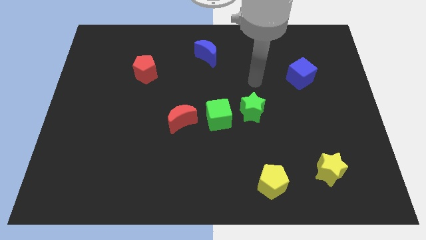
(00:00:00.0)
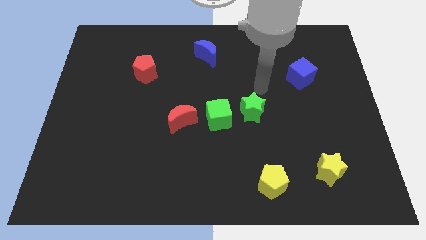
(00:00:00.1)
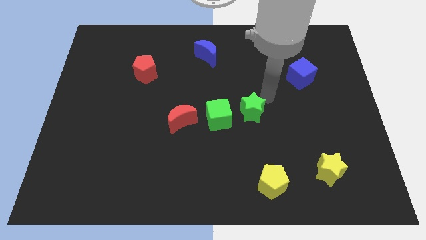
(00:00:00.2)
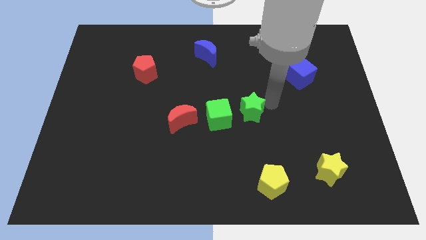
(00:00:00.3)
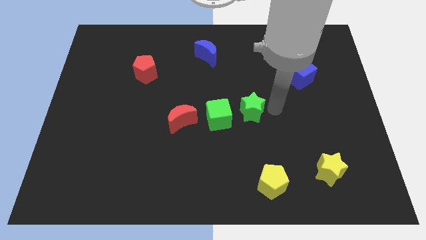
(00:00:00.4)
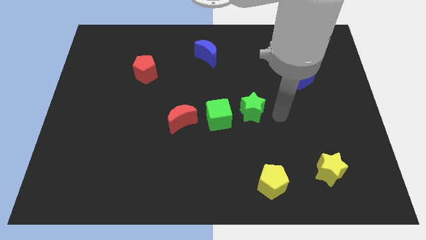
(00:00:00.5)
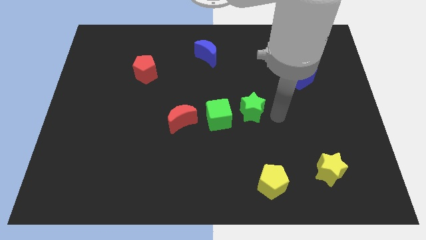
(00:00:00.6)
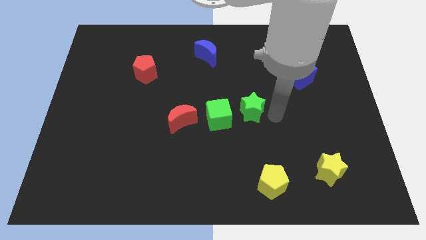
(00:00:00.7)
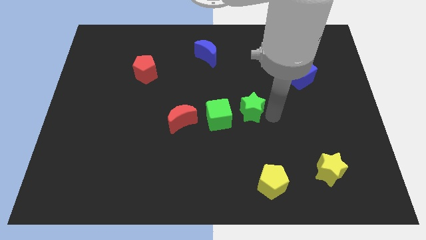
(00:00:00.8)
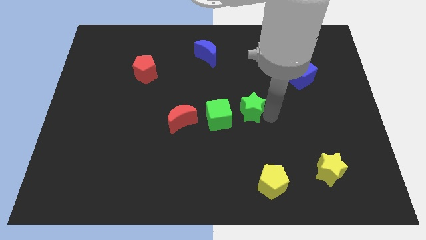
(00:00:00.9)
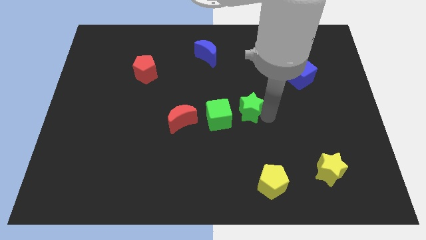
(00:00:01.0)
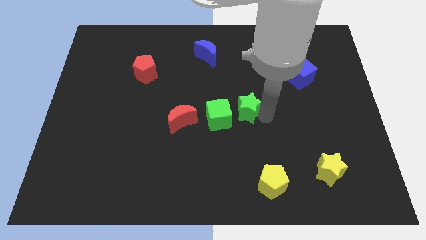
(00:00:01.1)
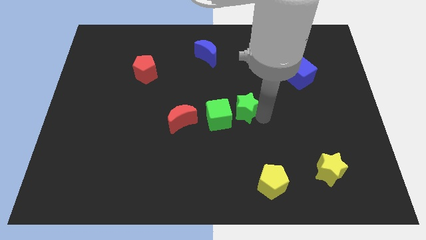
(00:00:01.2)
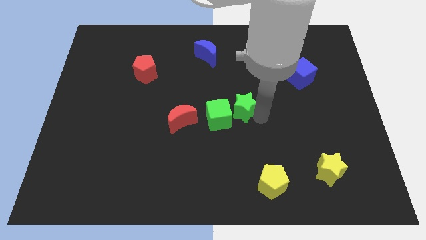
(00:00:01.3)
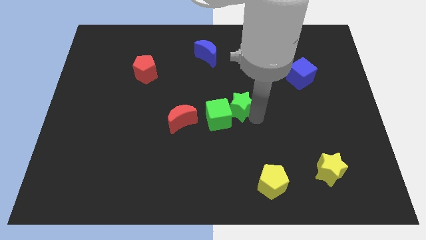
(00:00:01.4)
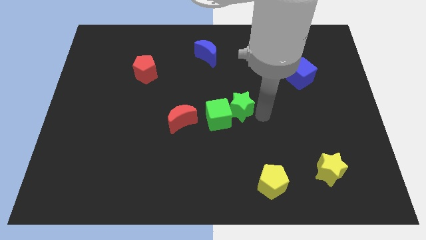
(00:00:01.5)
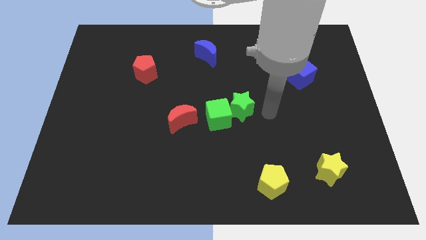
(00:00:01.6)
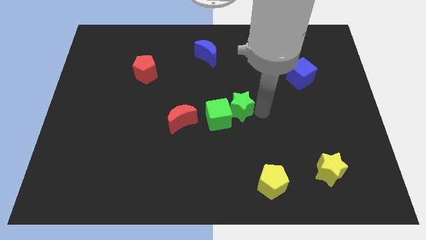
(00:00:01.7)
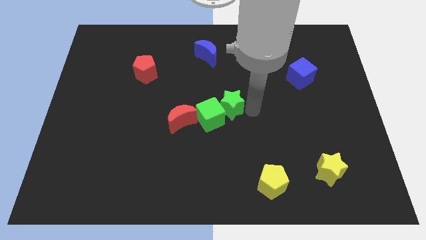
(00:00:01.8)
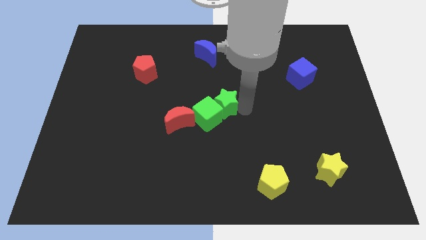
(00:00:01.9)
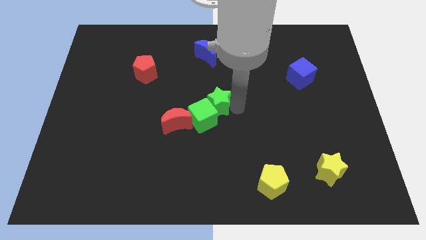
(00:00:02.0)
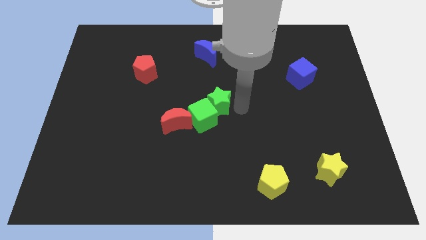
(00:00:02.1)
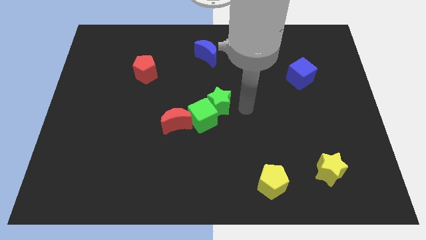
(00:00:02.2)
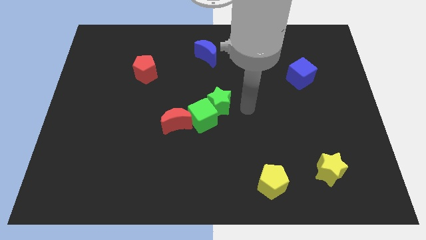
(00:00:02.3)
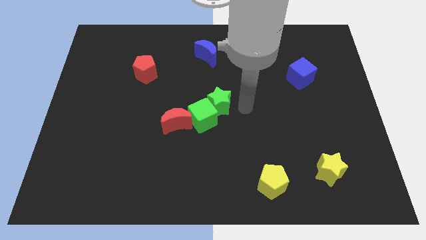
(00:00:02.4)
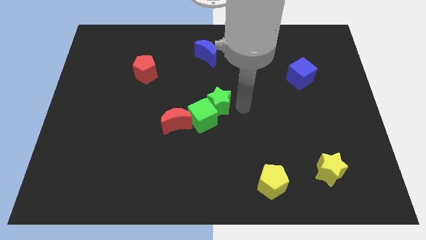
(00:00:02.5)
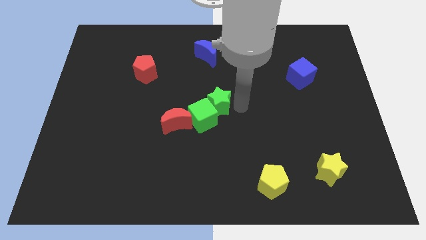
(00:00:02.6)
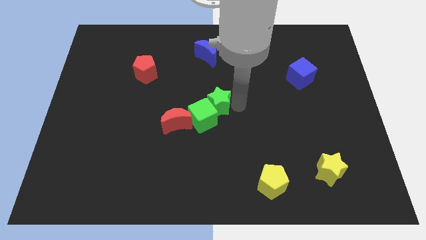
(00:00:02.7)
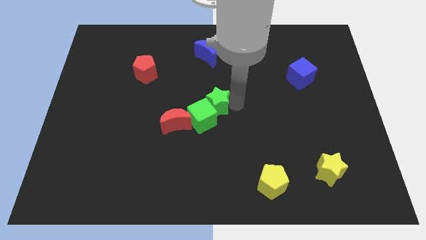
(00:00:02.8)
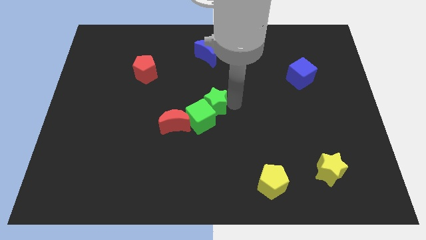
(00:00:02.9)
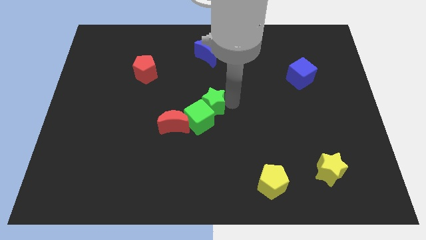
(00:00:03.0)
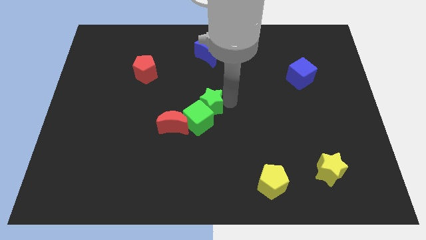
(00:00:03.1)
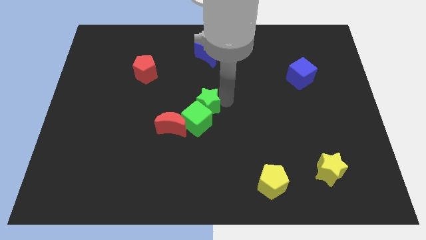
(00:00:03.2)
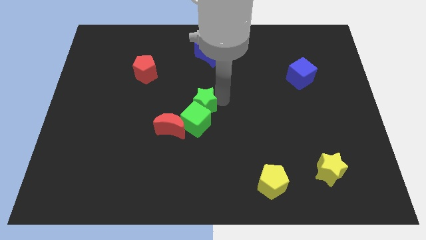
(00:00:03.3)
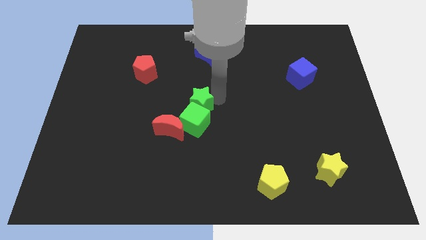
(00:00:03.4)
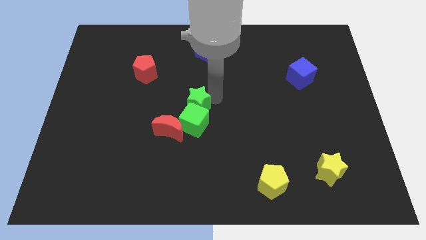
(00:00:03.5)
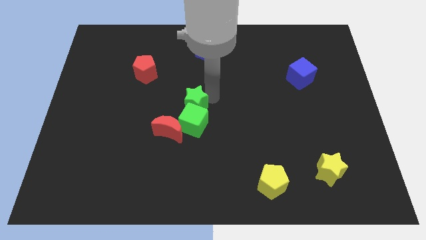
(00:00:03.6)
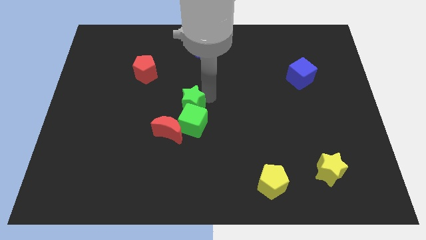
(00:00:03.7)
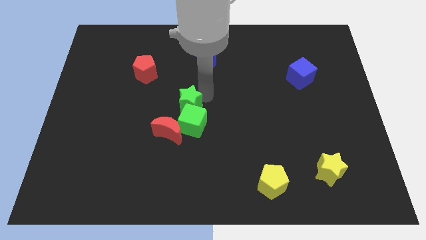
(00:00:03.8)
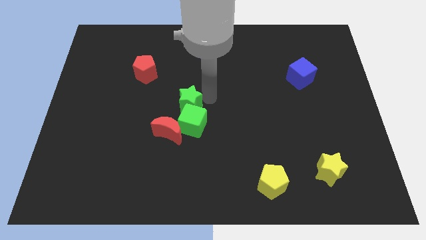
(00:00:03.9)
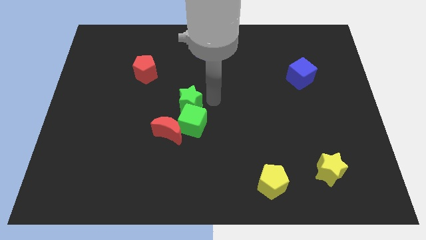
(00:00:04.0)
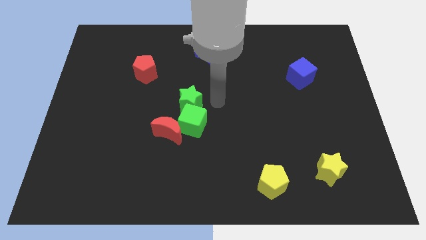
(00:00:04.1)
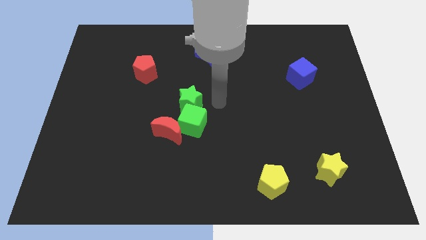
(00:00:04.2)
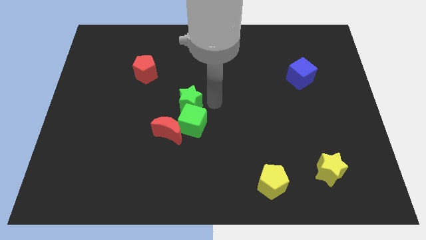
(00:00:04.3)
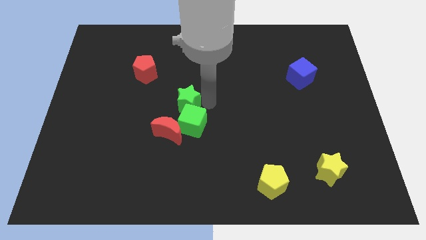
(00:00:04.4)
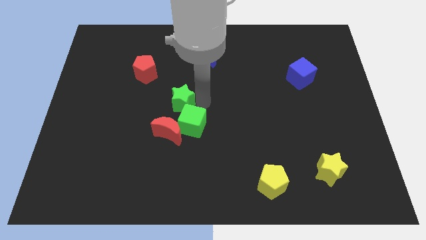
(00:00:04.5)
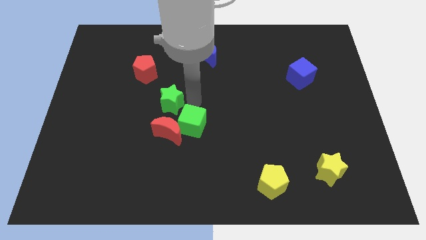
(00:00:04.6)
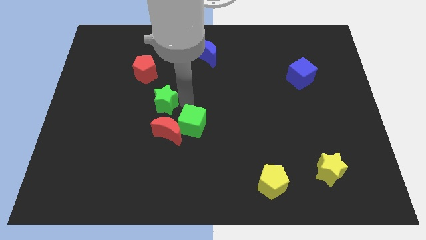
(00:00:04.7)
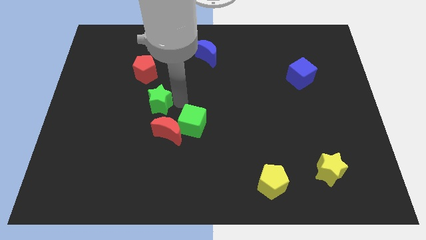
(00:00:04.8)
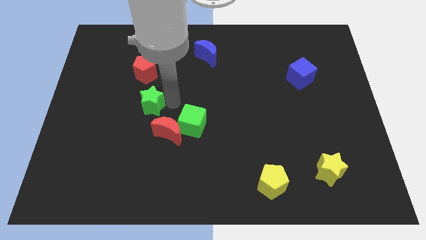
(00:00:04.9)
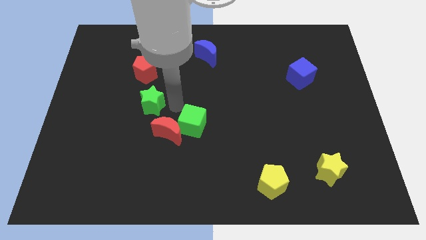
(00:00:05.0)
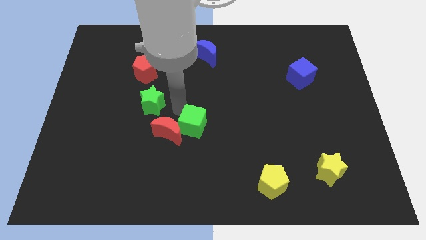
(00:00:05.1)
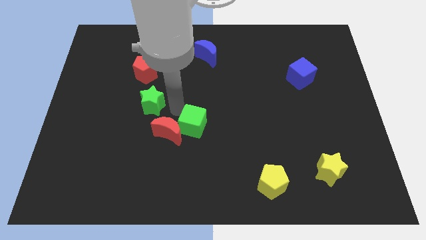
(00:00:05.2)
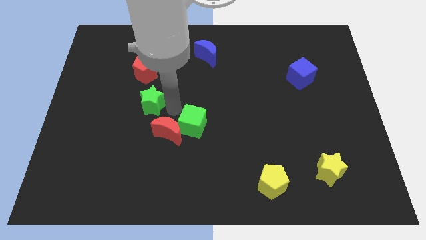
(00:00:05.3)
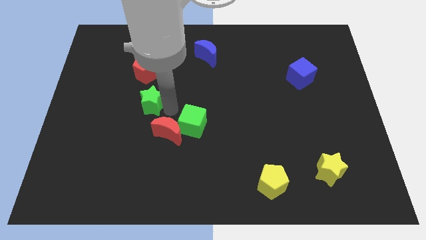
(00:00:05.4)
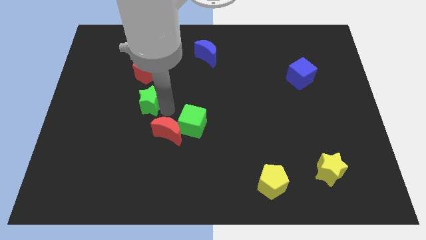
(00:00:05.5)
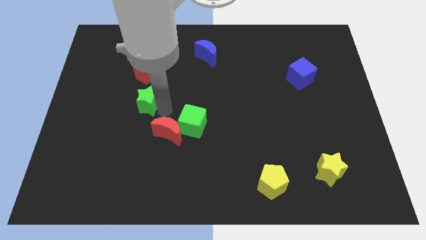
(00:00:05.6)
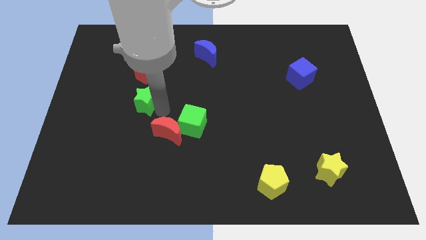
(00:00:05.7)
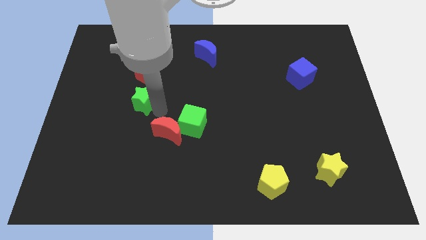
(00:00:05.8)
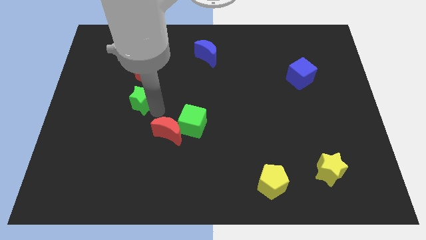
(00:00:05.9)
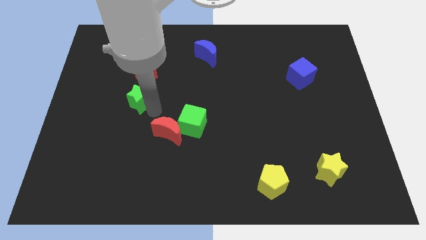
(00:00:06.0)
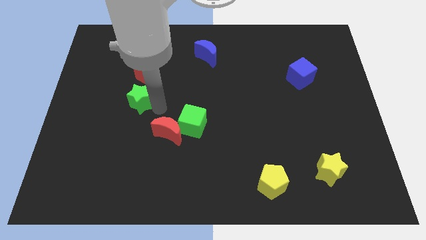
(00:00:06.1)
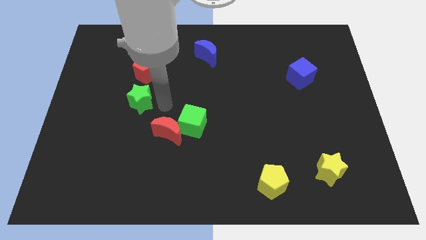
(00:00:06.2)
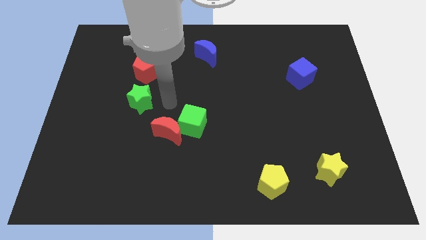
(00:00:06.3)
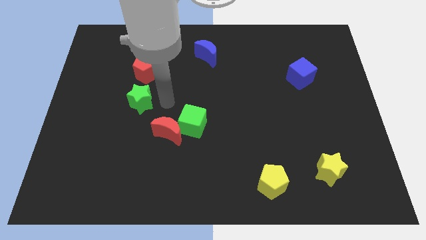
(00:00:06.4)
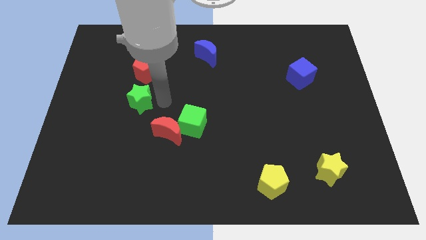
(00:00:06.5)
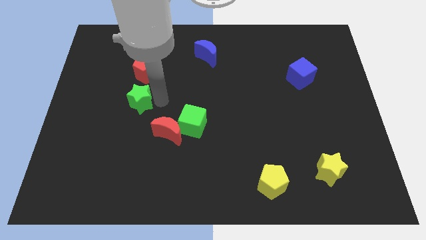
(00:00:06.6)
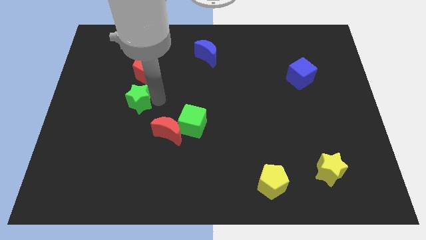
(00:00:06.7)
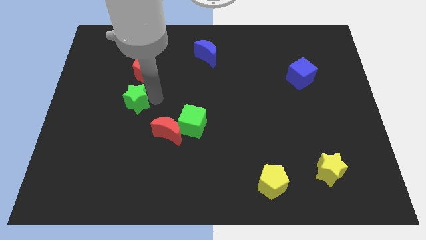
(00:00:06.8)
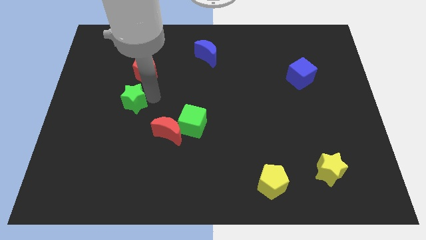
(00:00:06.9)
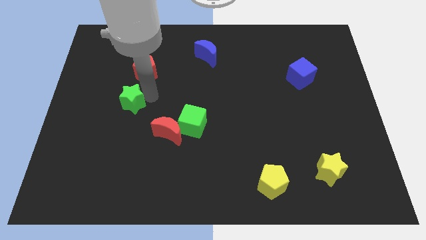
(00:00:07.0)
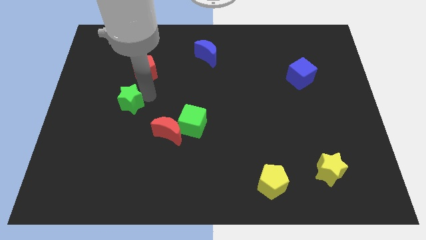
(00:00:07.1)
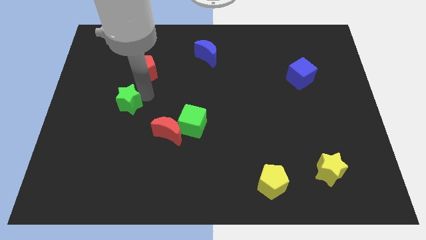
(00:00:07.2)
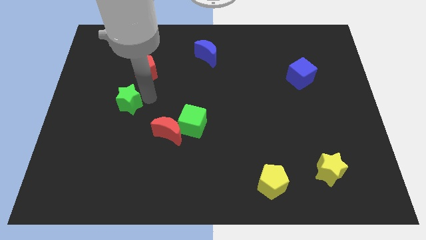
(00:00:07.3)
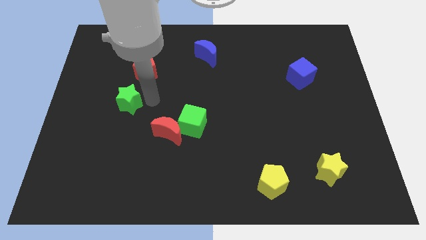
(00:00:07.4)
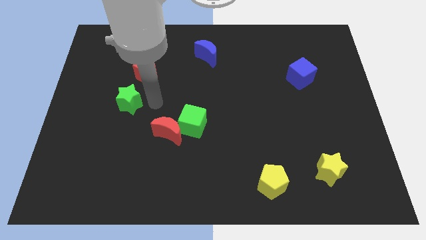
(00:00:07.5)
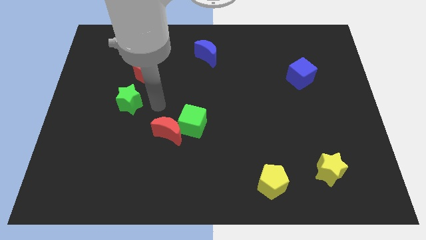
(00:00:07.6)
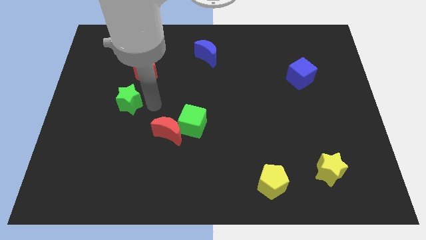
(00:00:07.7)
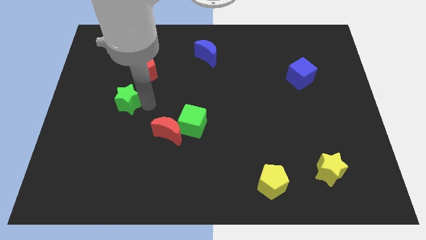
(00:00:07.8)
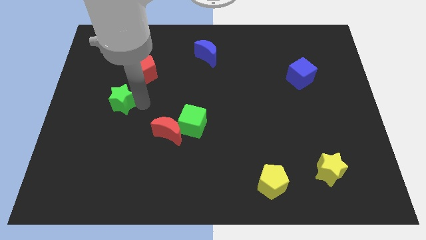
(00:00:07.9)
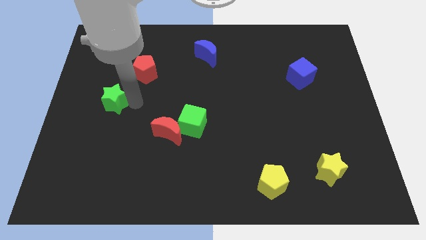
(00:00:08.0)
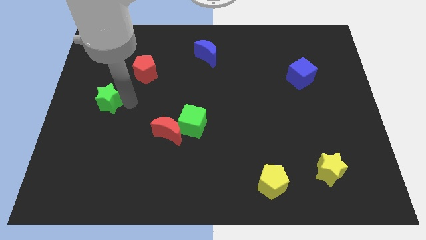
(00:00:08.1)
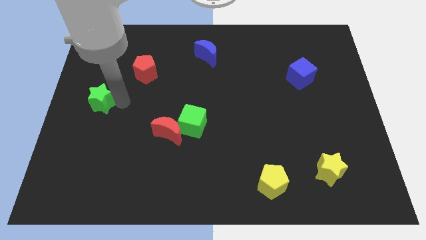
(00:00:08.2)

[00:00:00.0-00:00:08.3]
slide the green star to the left side
